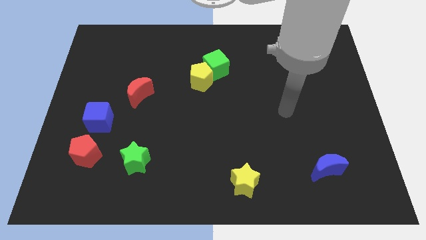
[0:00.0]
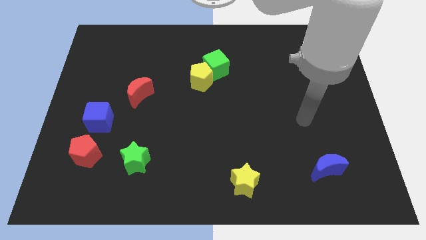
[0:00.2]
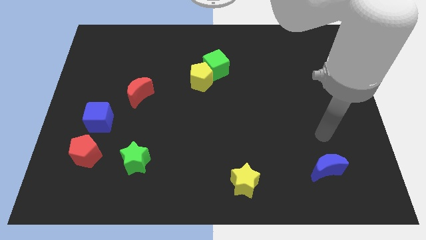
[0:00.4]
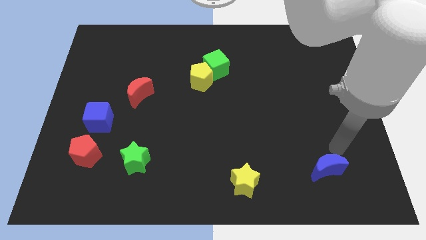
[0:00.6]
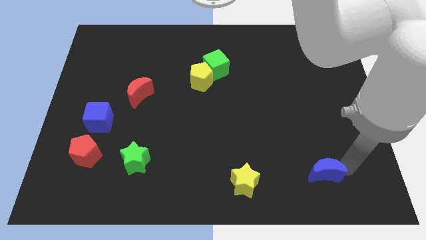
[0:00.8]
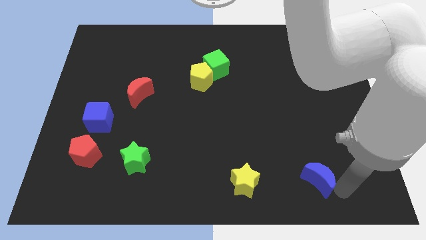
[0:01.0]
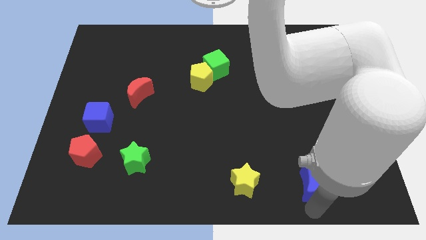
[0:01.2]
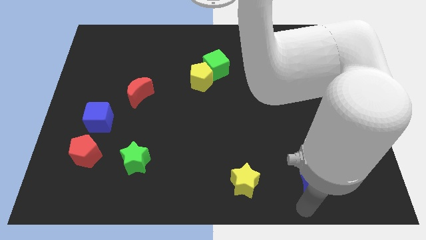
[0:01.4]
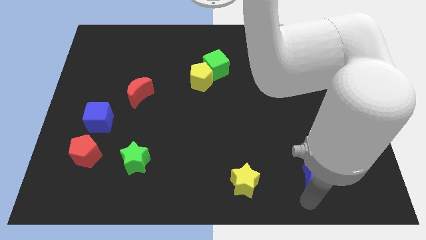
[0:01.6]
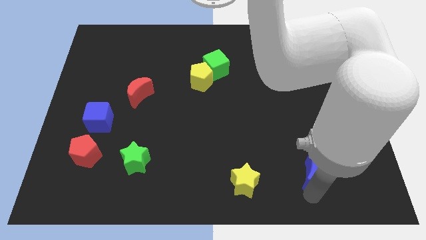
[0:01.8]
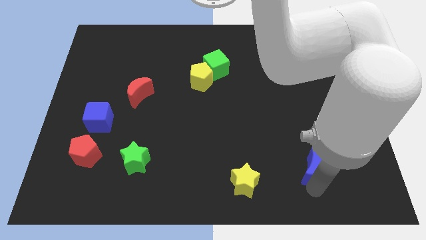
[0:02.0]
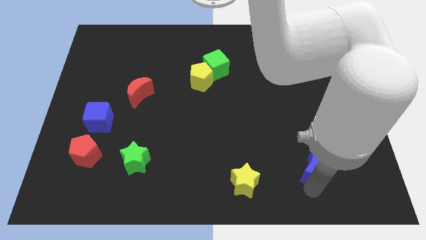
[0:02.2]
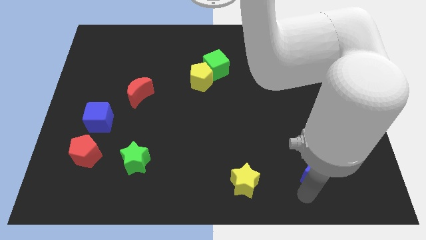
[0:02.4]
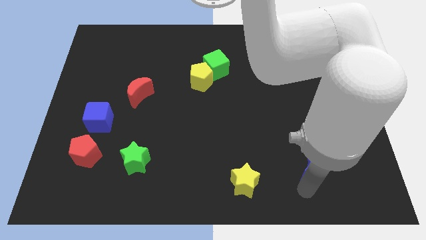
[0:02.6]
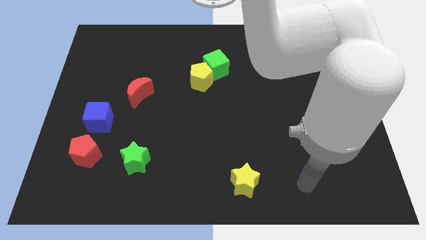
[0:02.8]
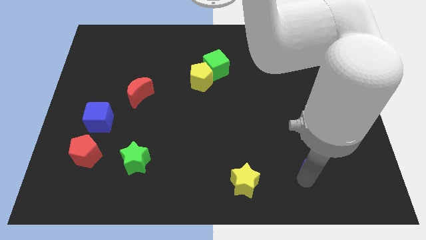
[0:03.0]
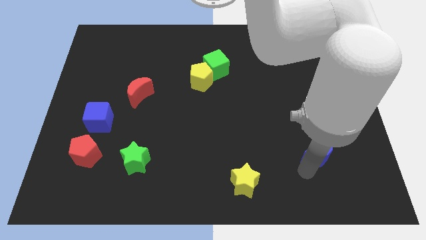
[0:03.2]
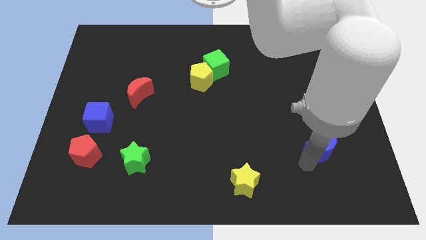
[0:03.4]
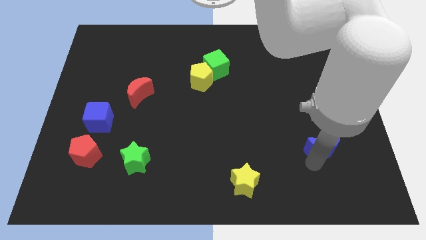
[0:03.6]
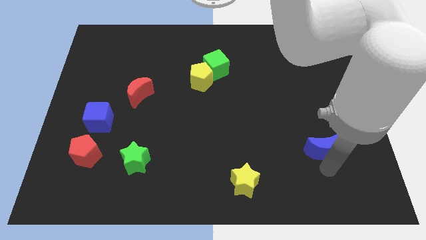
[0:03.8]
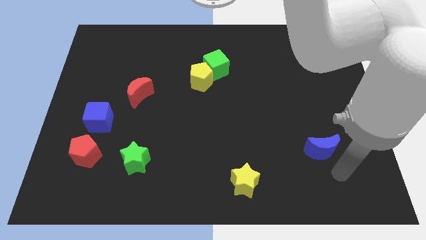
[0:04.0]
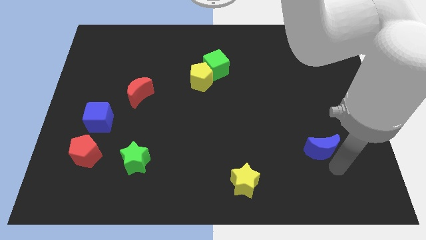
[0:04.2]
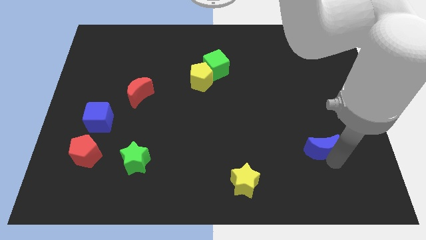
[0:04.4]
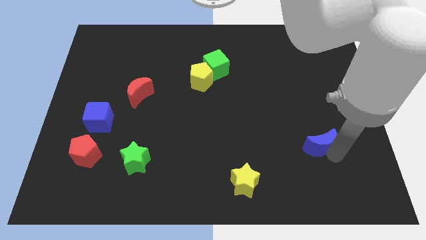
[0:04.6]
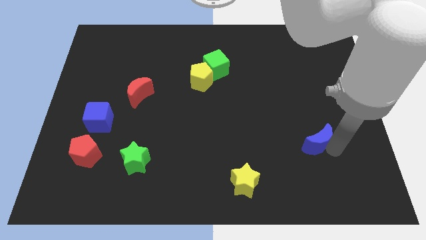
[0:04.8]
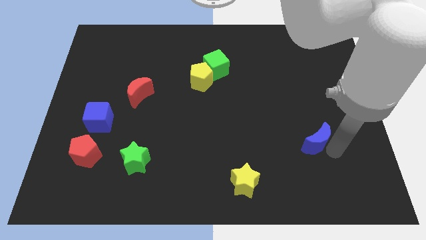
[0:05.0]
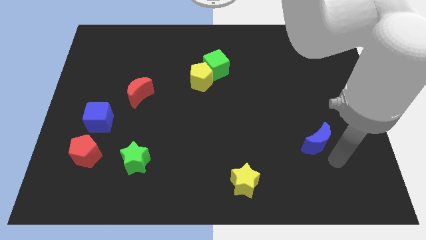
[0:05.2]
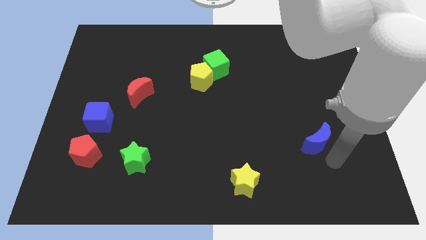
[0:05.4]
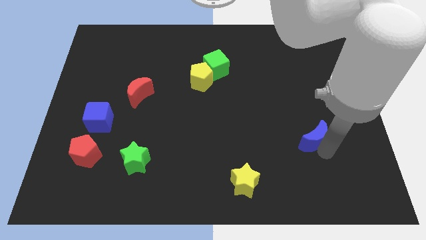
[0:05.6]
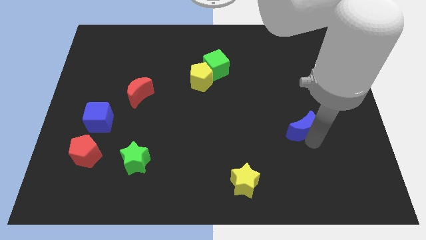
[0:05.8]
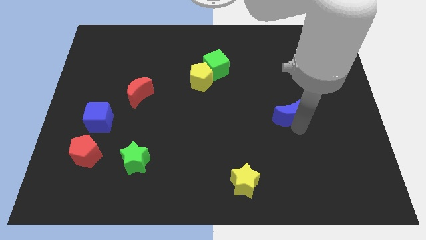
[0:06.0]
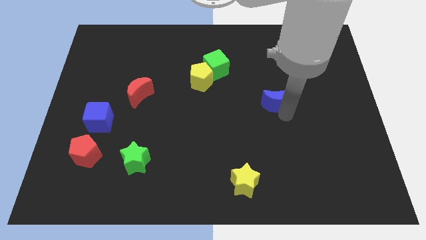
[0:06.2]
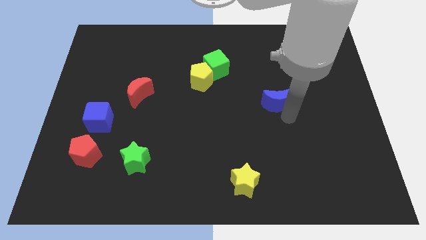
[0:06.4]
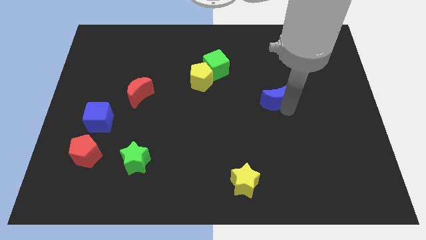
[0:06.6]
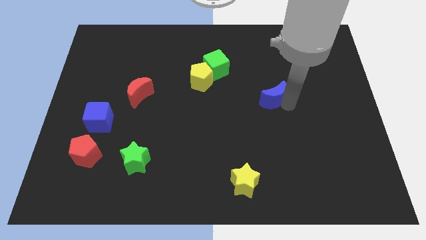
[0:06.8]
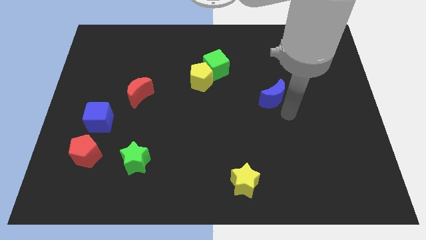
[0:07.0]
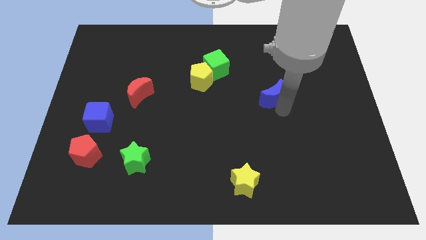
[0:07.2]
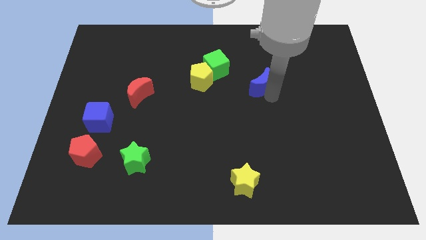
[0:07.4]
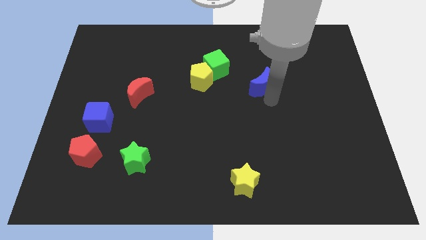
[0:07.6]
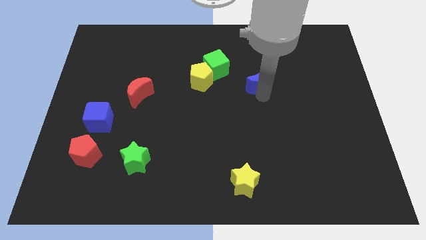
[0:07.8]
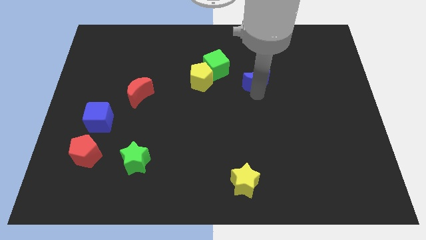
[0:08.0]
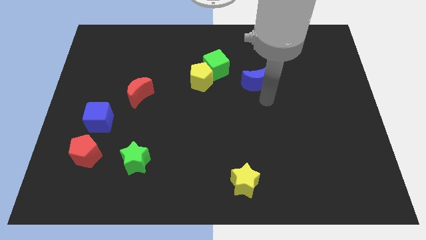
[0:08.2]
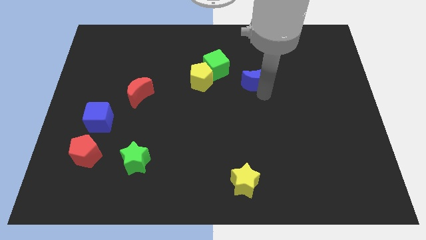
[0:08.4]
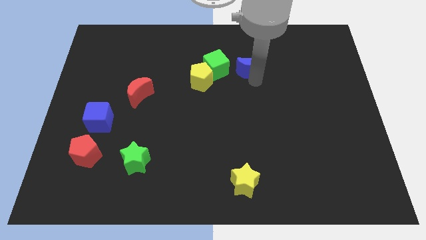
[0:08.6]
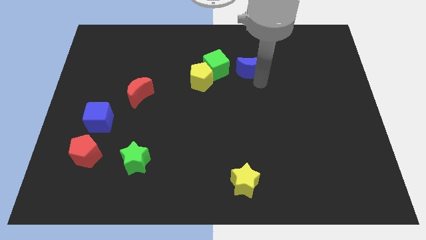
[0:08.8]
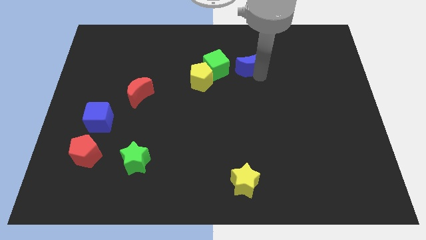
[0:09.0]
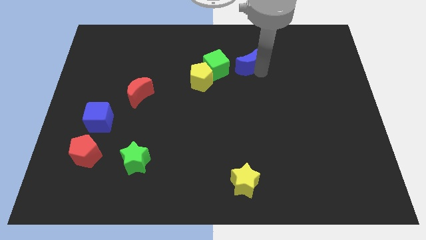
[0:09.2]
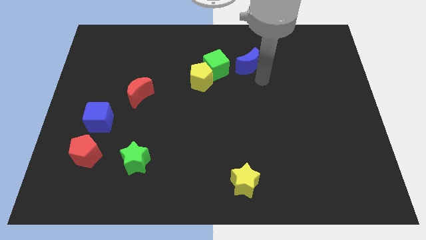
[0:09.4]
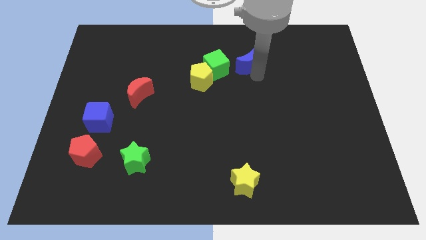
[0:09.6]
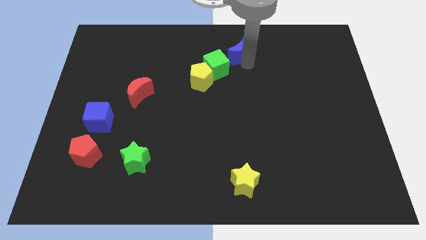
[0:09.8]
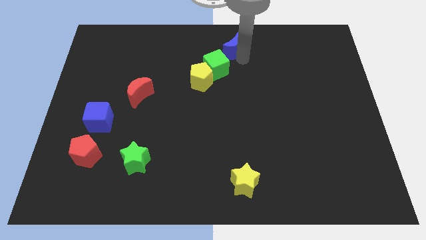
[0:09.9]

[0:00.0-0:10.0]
move the blue moon to the towards your base

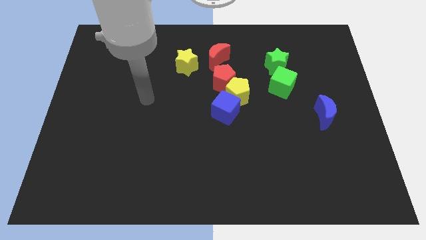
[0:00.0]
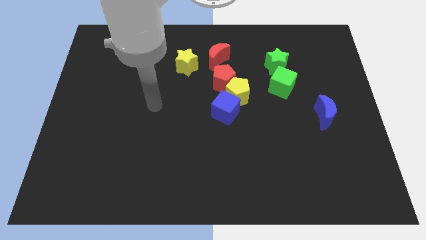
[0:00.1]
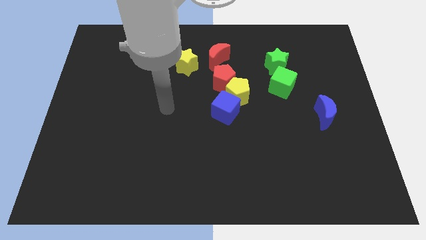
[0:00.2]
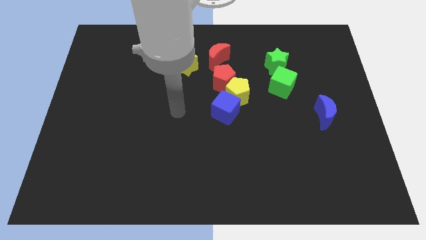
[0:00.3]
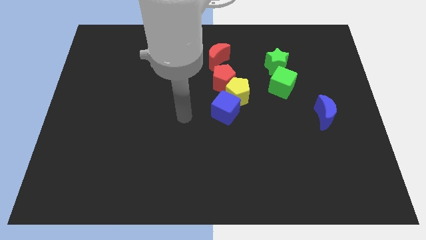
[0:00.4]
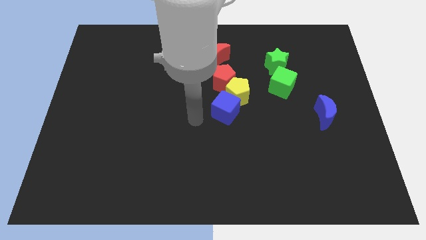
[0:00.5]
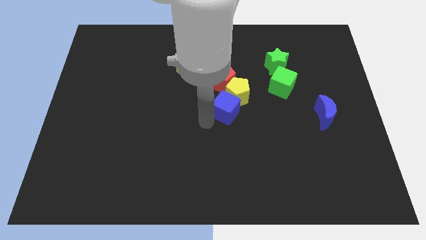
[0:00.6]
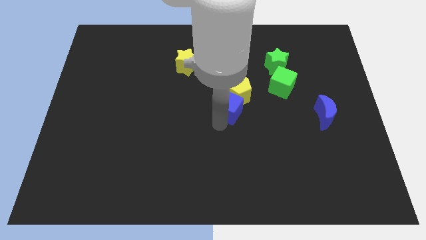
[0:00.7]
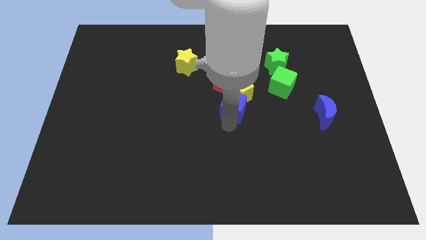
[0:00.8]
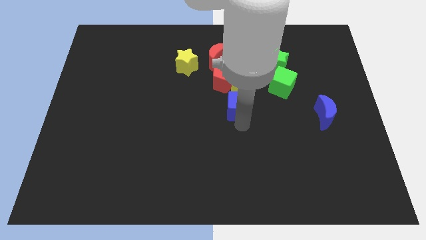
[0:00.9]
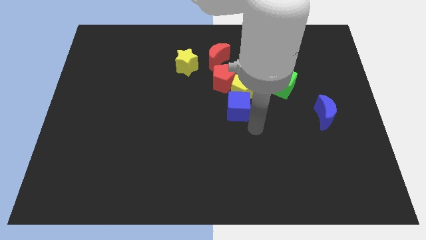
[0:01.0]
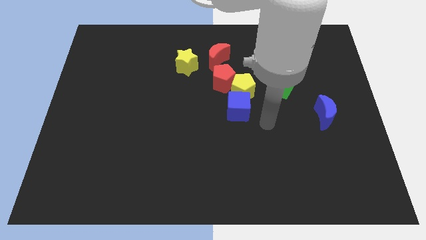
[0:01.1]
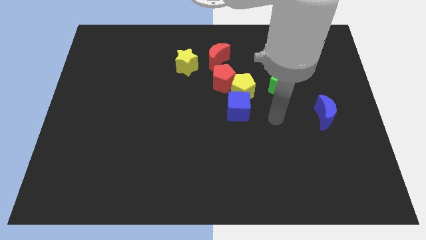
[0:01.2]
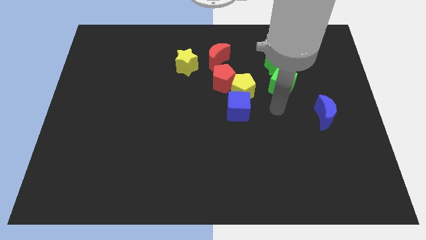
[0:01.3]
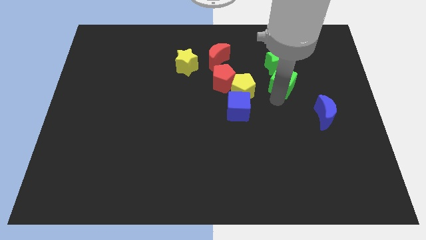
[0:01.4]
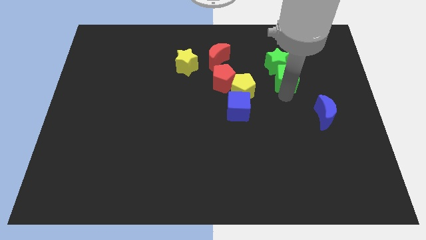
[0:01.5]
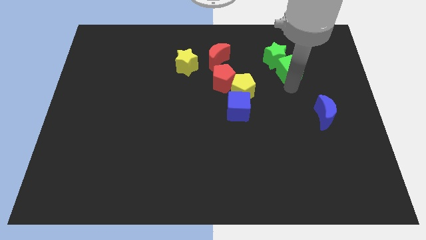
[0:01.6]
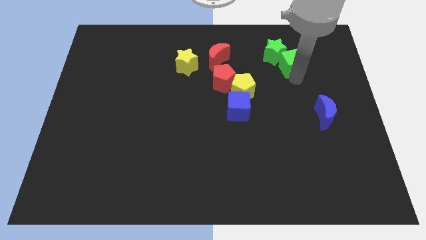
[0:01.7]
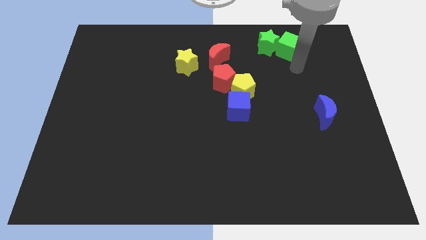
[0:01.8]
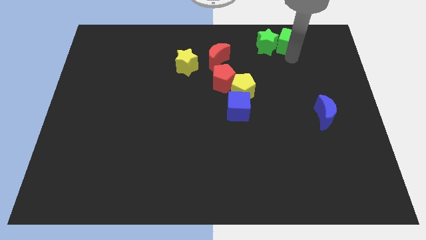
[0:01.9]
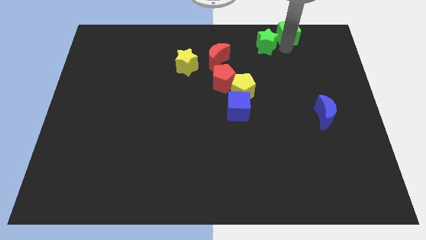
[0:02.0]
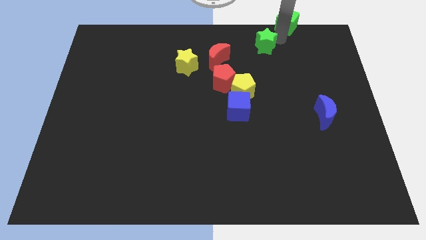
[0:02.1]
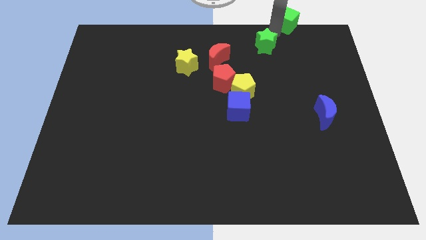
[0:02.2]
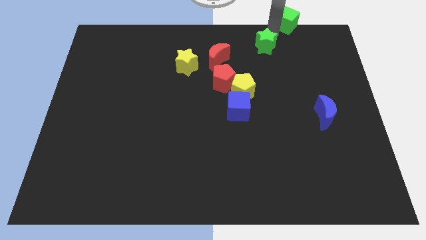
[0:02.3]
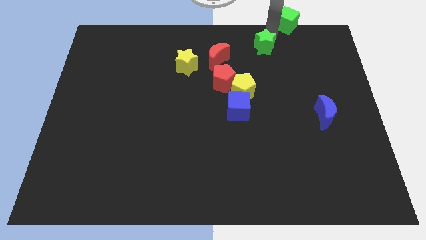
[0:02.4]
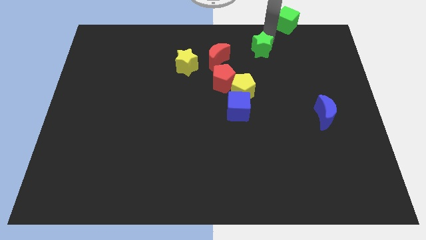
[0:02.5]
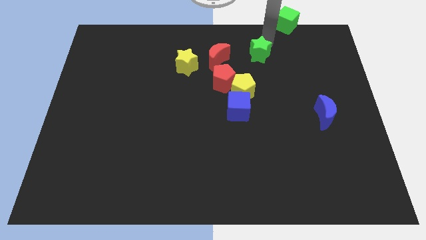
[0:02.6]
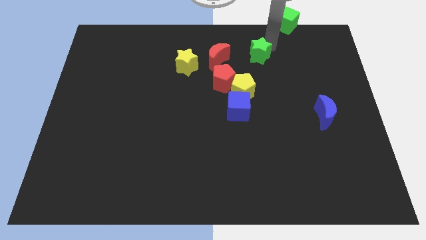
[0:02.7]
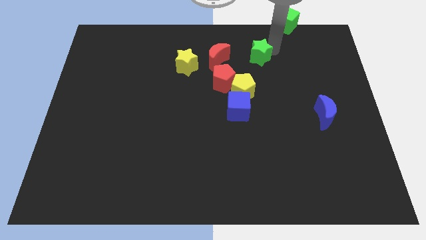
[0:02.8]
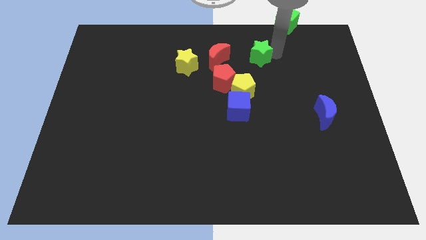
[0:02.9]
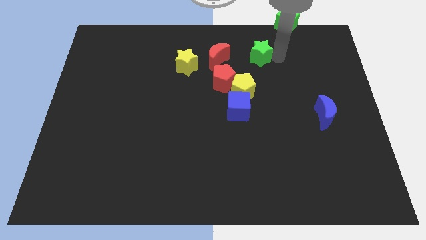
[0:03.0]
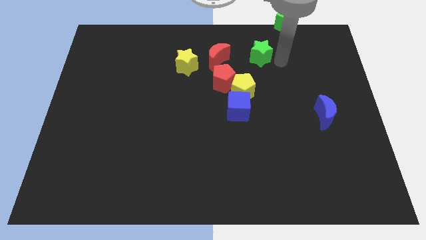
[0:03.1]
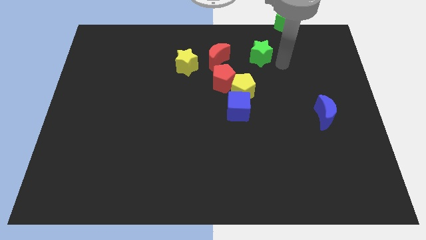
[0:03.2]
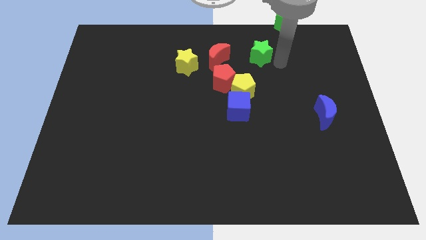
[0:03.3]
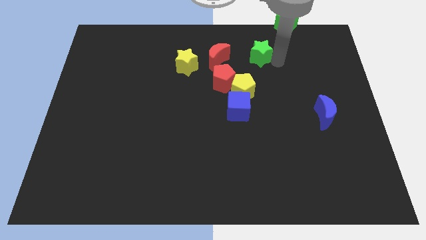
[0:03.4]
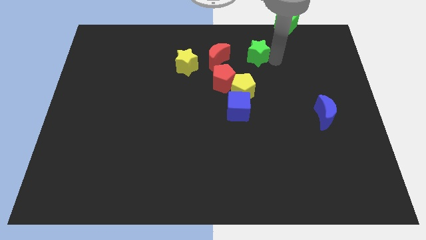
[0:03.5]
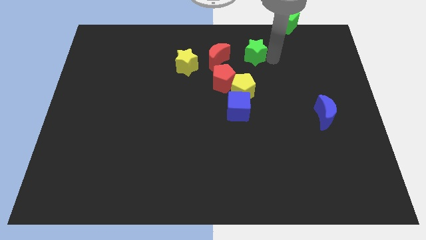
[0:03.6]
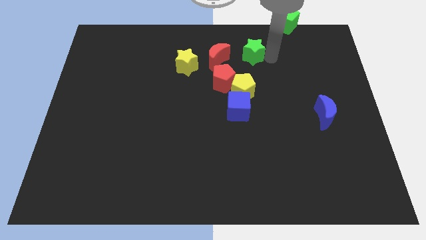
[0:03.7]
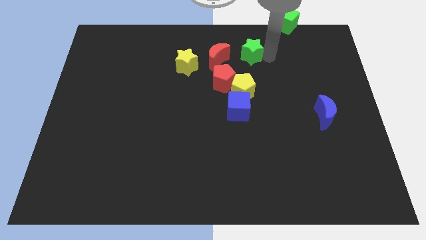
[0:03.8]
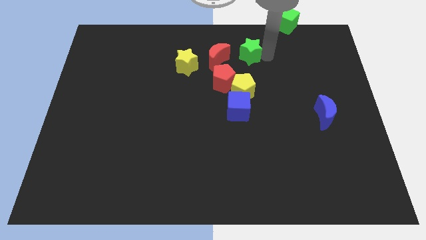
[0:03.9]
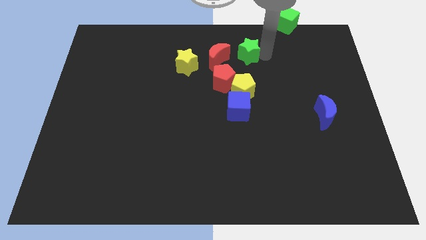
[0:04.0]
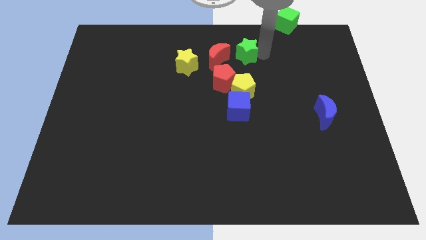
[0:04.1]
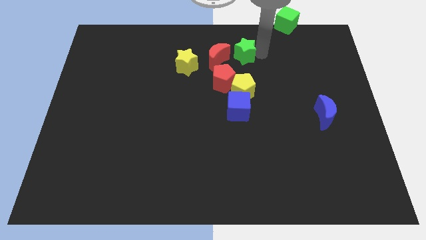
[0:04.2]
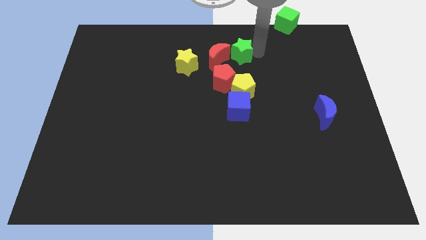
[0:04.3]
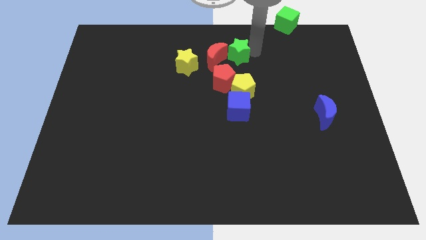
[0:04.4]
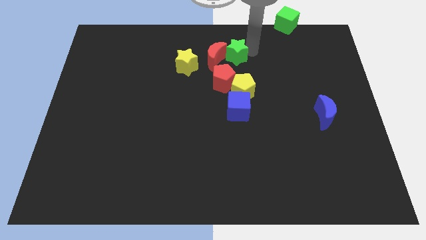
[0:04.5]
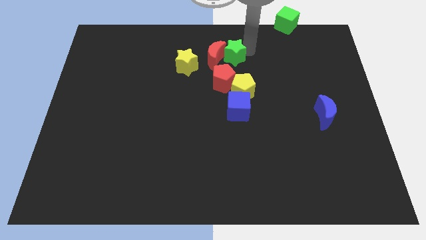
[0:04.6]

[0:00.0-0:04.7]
slide the green star to the top side
